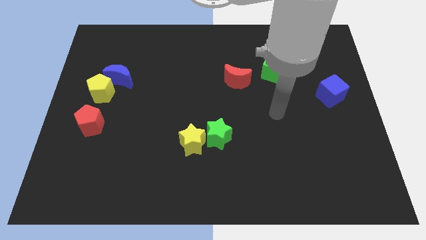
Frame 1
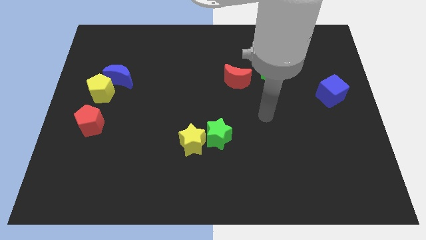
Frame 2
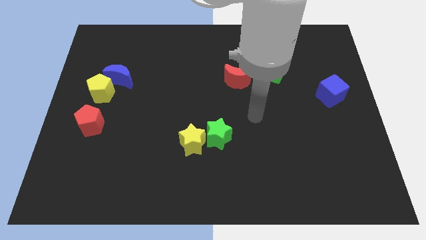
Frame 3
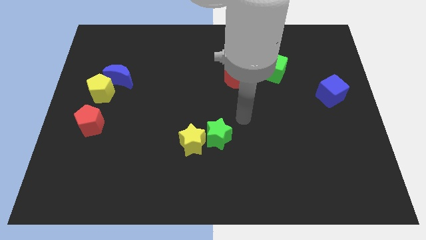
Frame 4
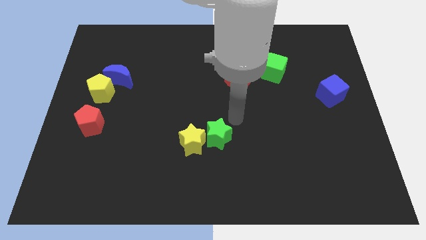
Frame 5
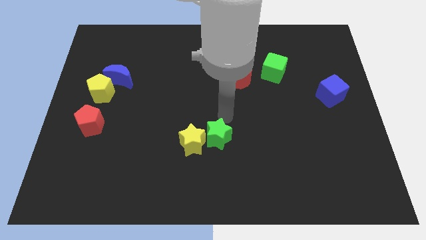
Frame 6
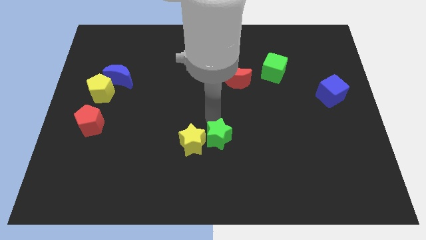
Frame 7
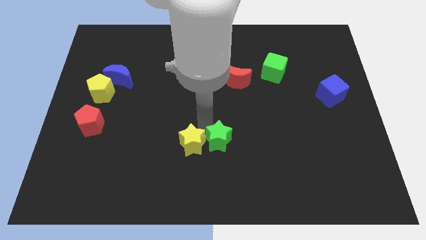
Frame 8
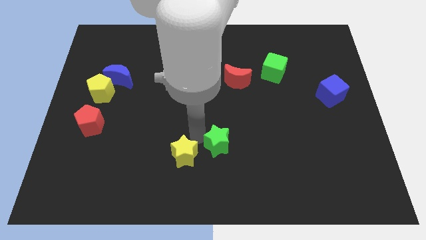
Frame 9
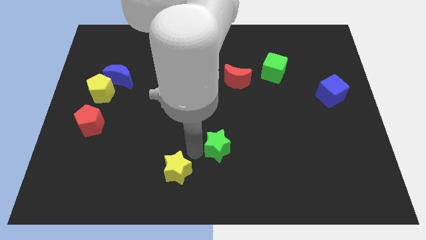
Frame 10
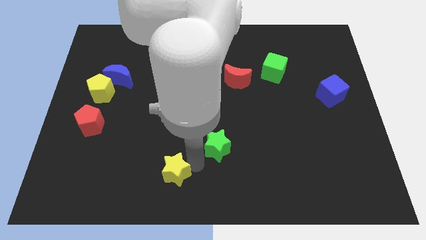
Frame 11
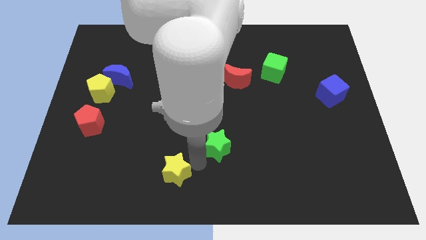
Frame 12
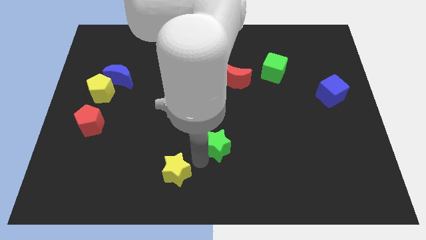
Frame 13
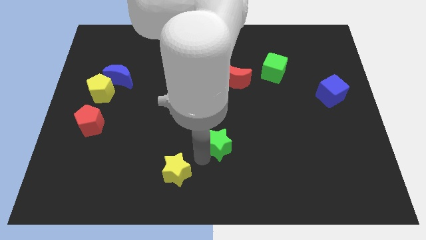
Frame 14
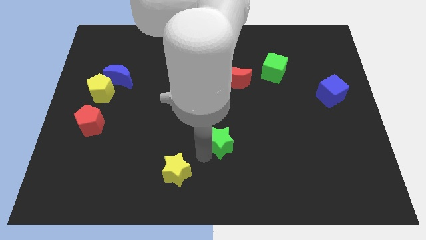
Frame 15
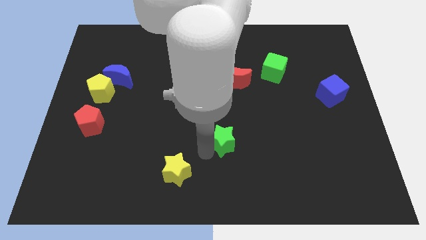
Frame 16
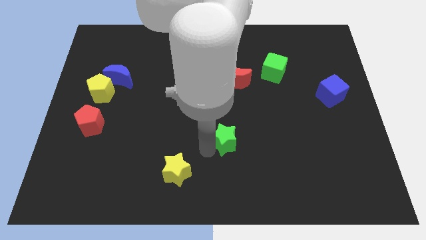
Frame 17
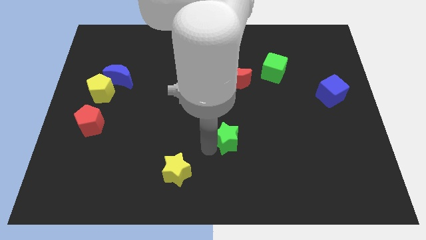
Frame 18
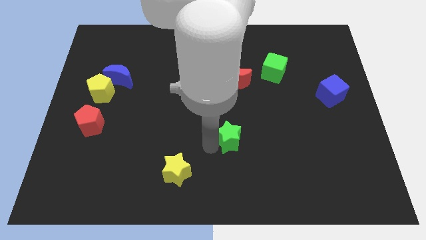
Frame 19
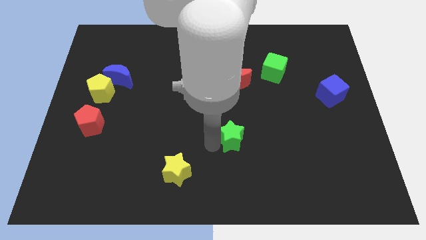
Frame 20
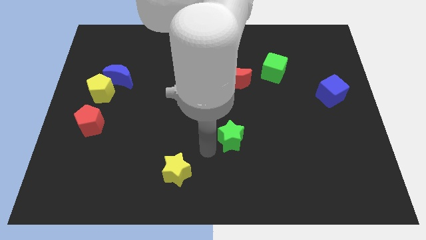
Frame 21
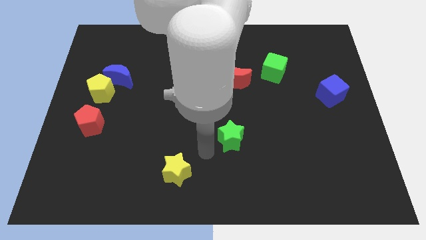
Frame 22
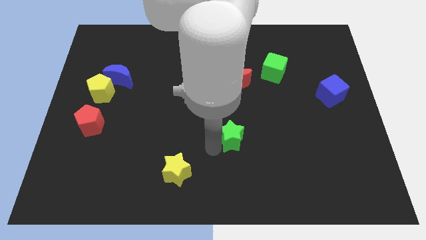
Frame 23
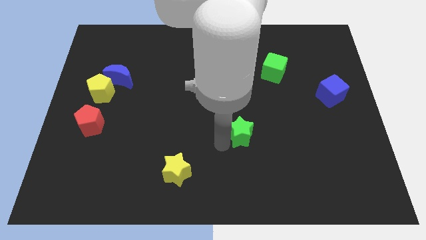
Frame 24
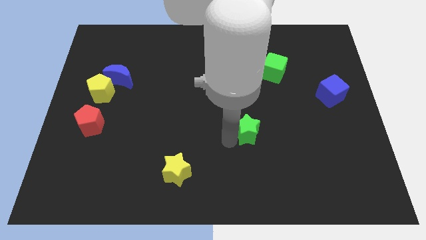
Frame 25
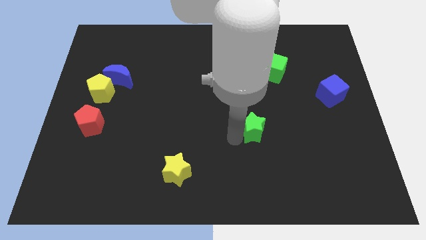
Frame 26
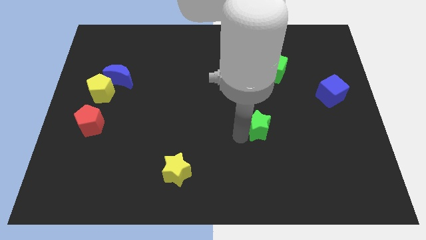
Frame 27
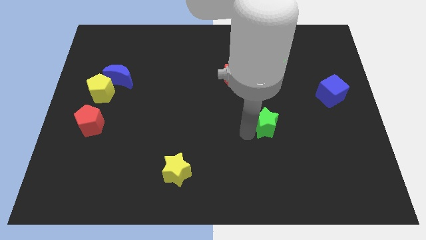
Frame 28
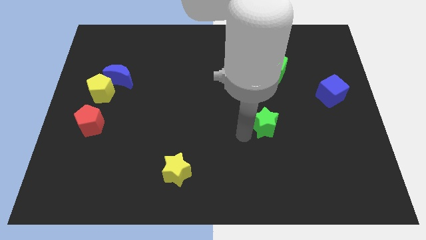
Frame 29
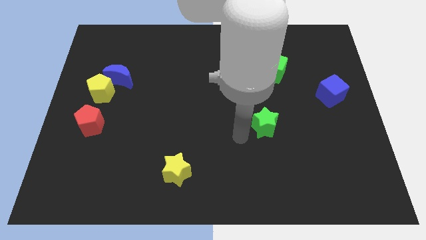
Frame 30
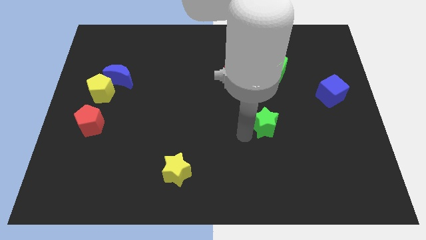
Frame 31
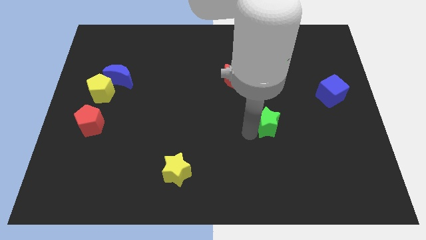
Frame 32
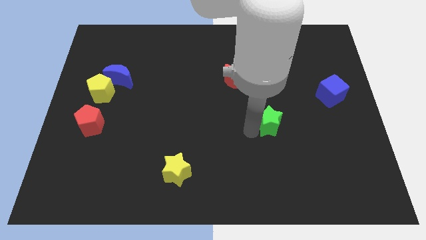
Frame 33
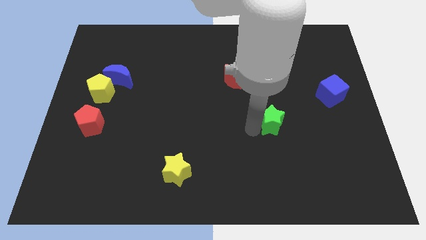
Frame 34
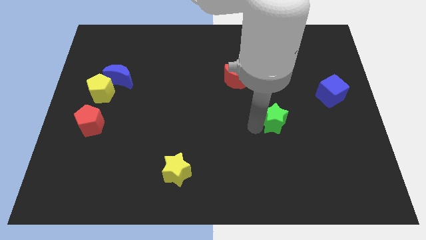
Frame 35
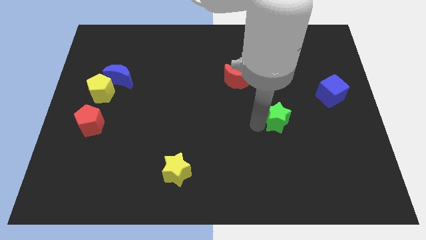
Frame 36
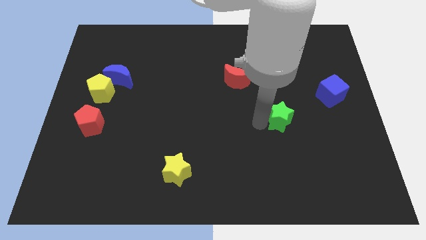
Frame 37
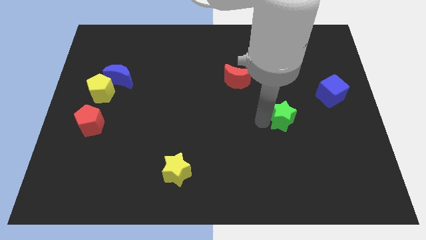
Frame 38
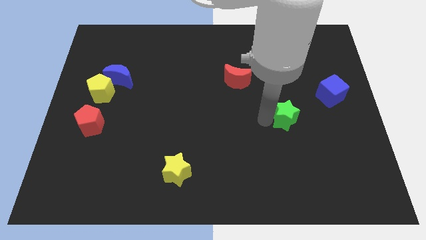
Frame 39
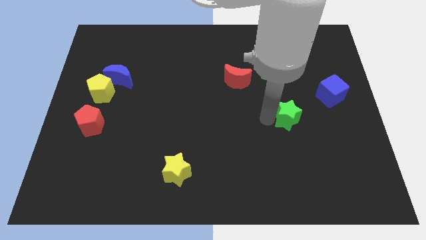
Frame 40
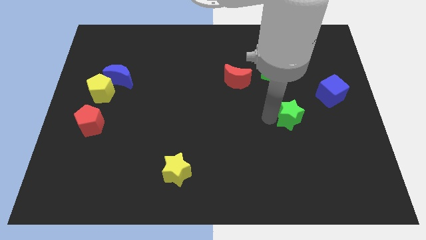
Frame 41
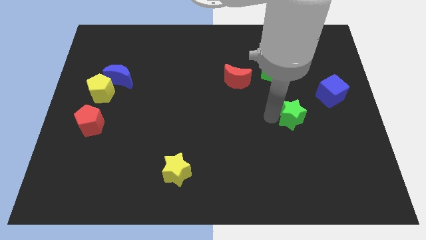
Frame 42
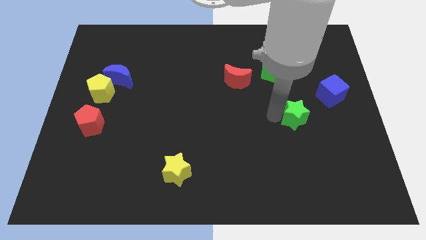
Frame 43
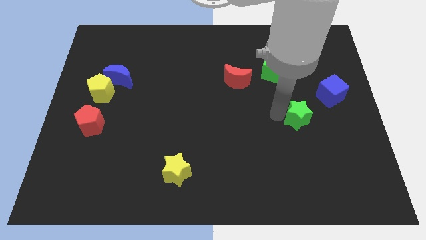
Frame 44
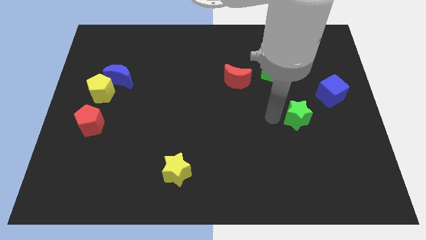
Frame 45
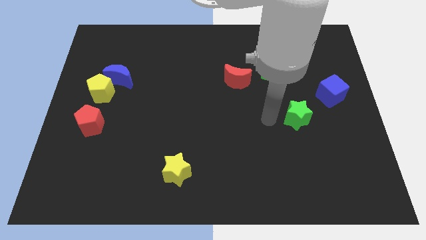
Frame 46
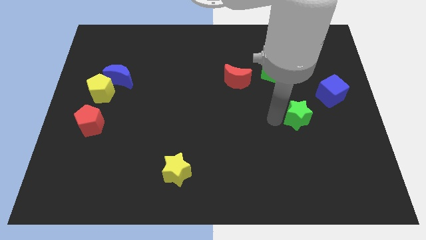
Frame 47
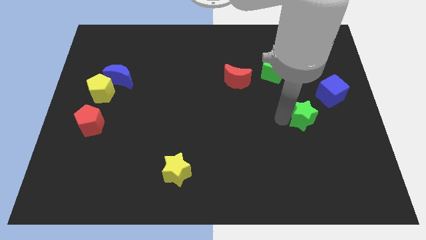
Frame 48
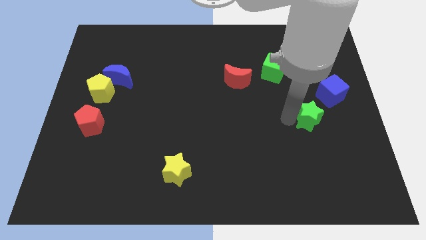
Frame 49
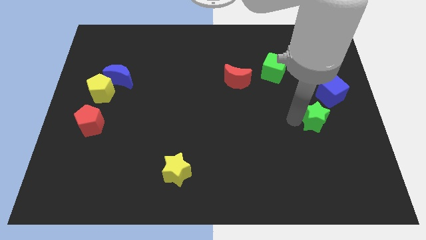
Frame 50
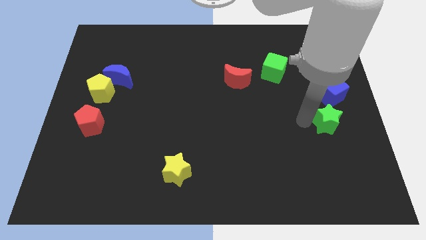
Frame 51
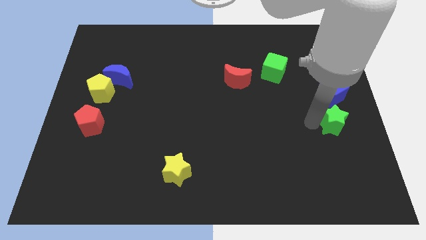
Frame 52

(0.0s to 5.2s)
put the green star to the right side

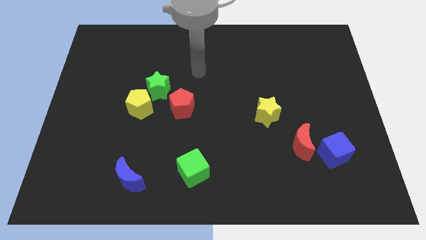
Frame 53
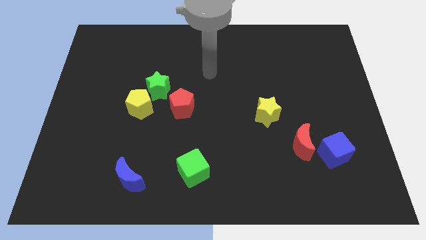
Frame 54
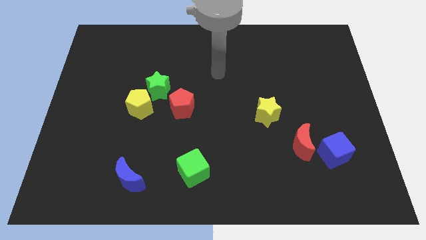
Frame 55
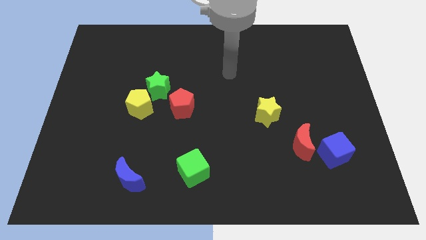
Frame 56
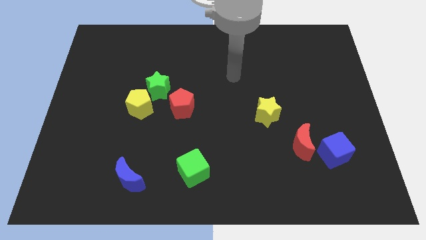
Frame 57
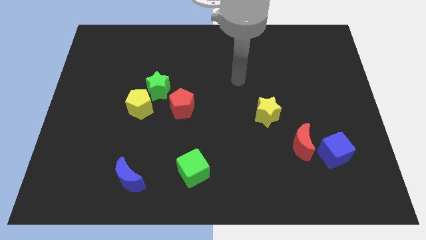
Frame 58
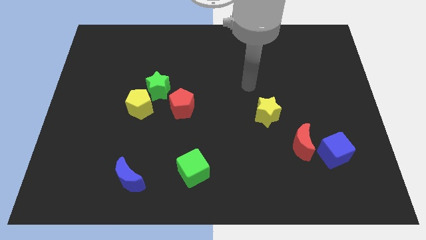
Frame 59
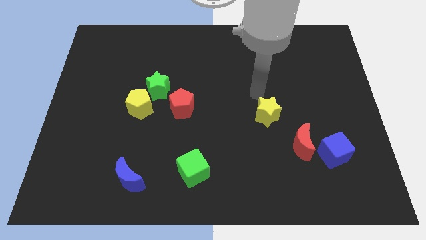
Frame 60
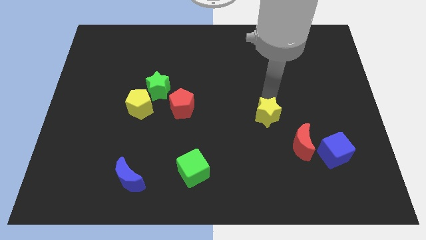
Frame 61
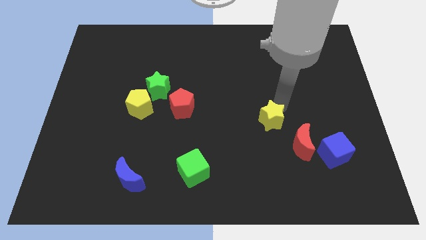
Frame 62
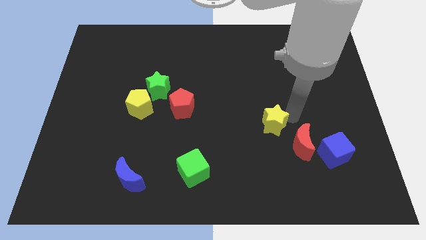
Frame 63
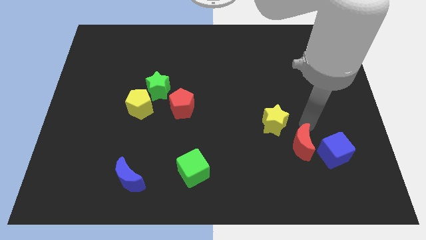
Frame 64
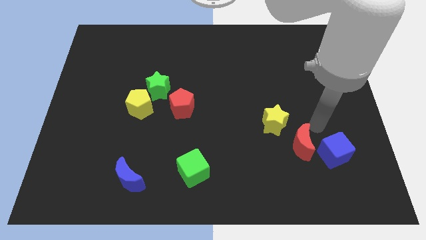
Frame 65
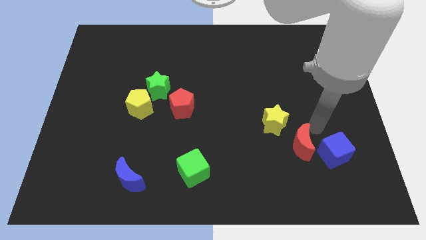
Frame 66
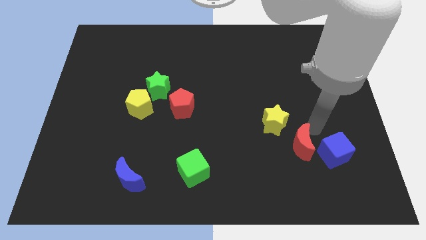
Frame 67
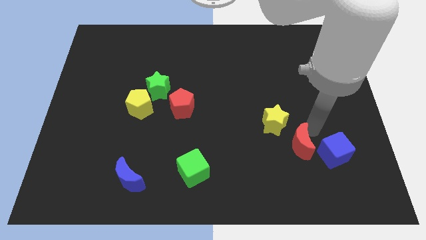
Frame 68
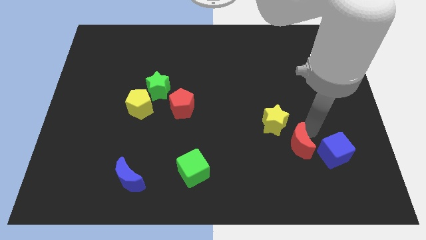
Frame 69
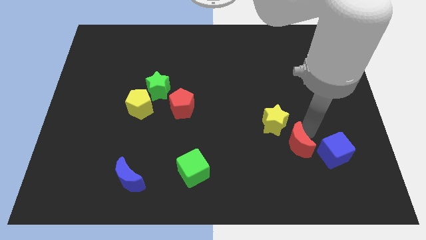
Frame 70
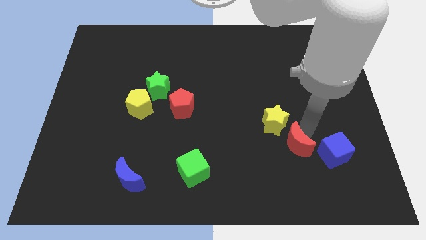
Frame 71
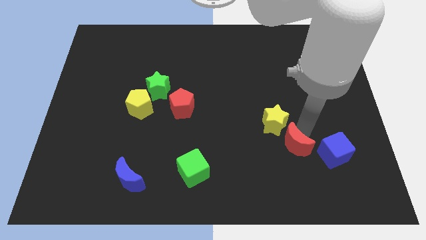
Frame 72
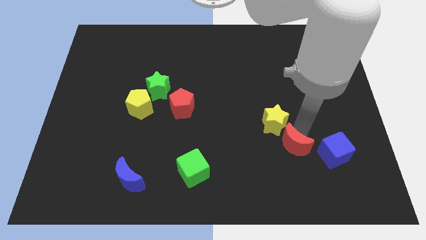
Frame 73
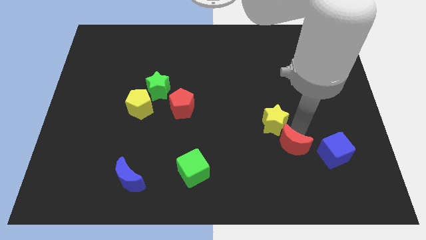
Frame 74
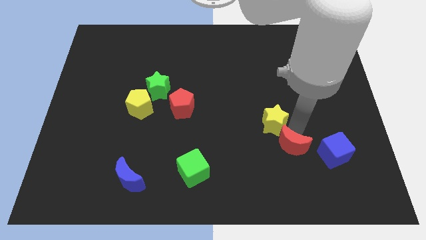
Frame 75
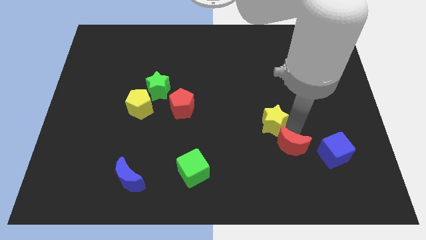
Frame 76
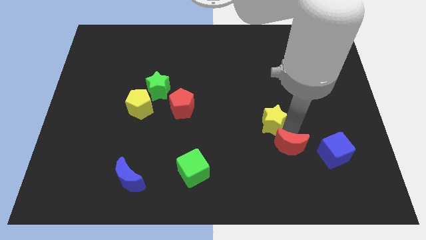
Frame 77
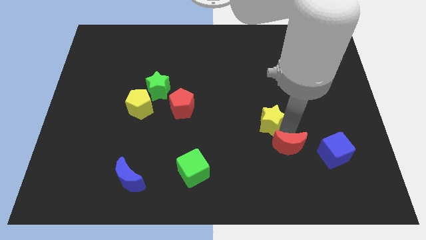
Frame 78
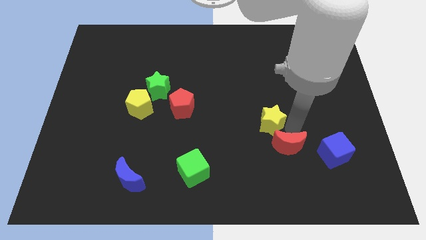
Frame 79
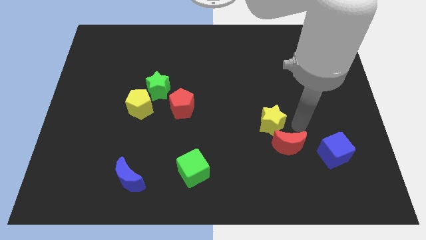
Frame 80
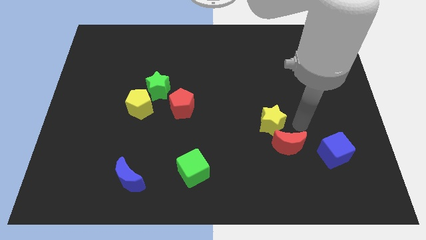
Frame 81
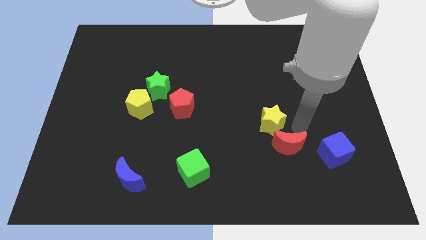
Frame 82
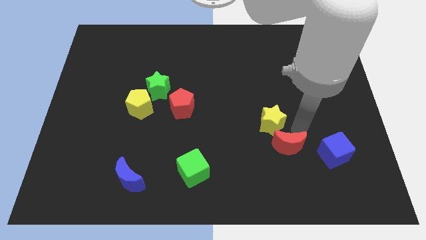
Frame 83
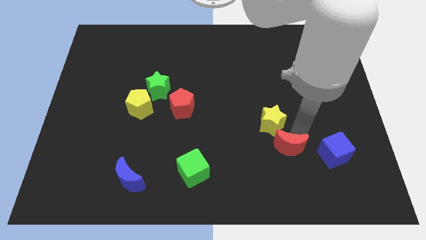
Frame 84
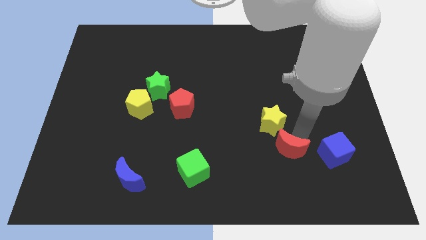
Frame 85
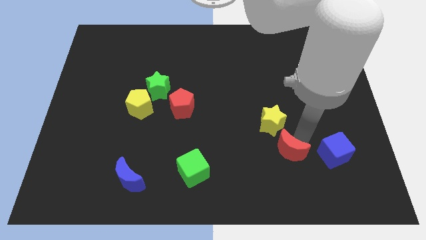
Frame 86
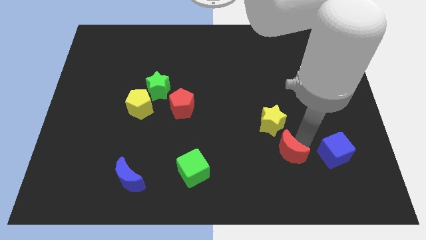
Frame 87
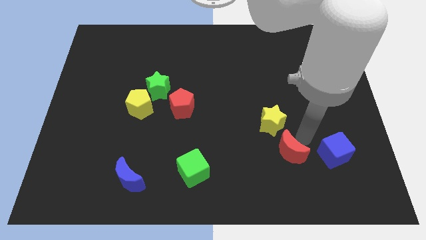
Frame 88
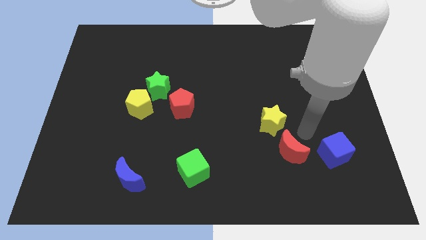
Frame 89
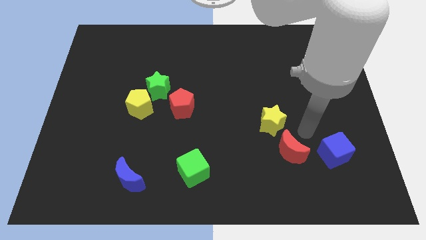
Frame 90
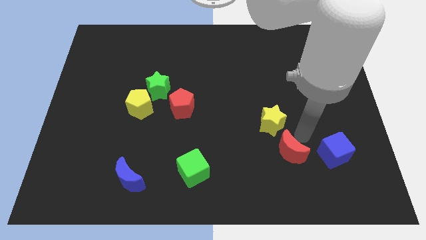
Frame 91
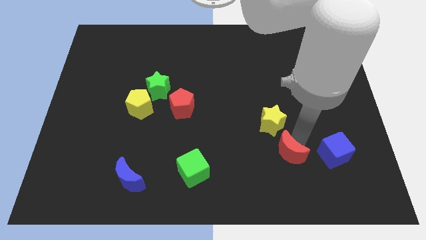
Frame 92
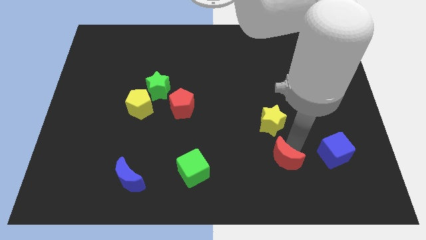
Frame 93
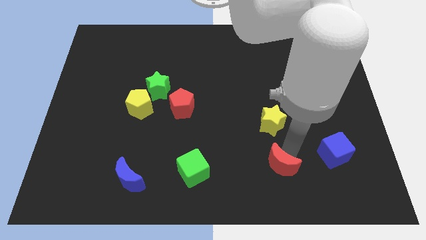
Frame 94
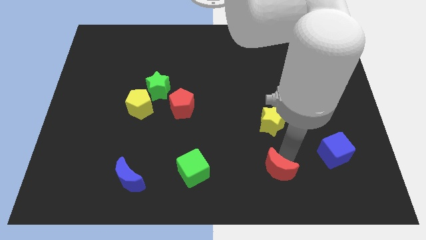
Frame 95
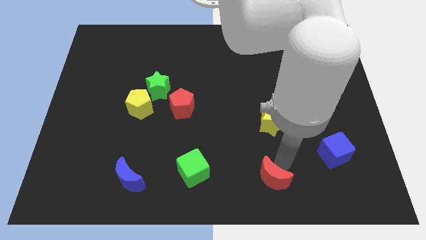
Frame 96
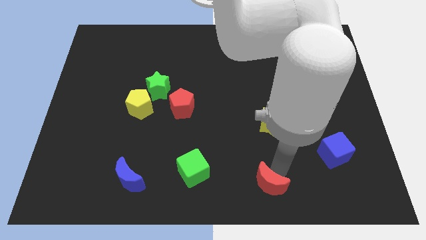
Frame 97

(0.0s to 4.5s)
put the red moon to the bottom
